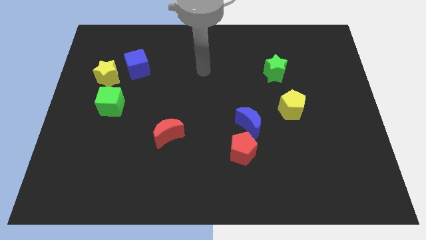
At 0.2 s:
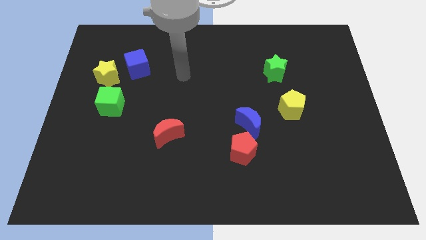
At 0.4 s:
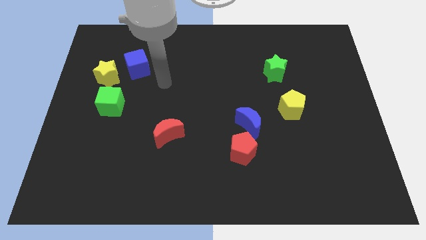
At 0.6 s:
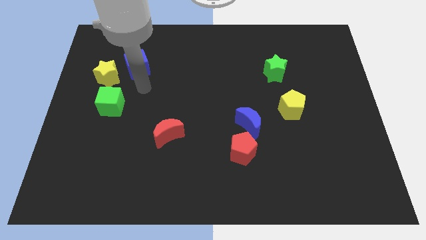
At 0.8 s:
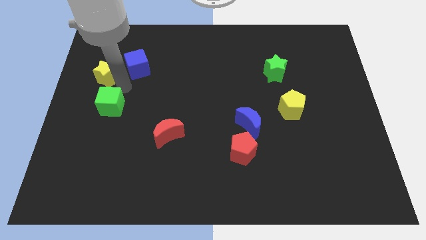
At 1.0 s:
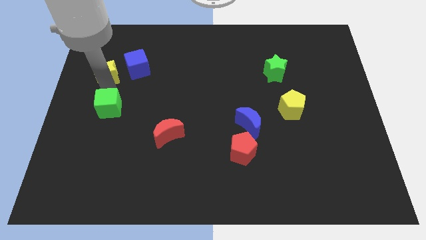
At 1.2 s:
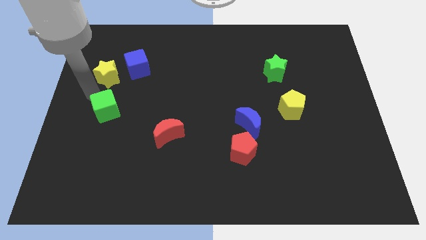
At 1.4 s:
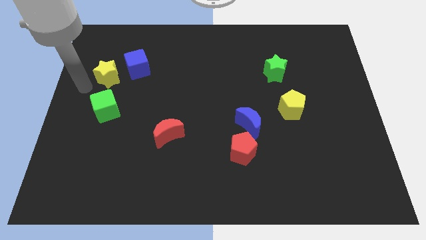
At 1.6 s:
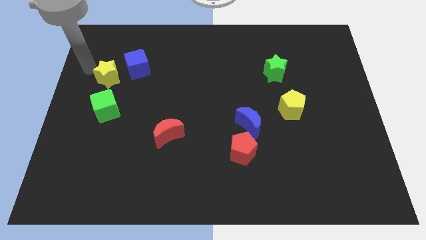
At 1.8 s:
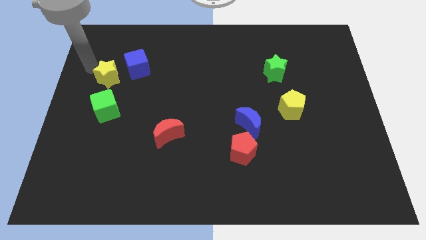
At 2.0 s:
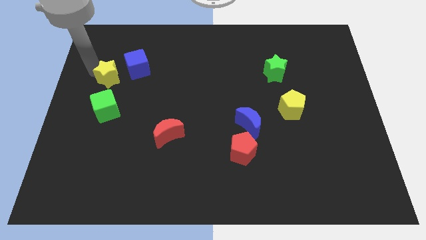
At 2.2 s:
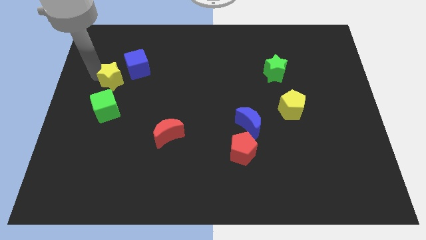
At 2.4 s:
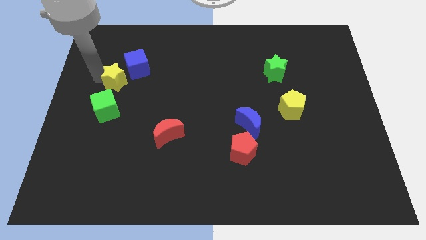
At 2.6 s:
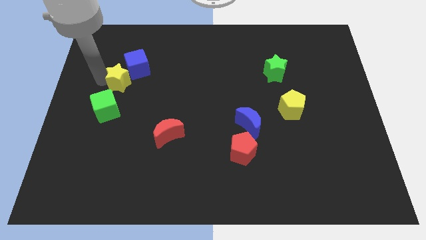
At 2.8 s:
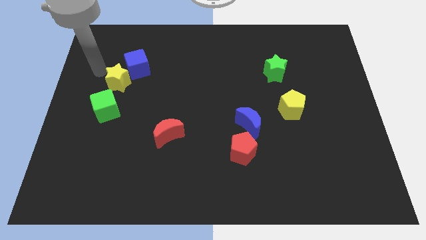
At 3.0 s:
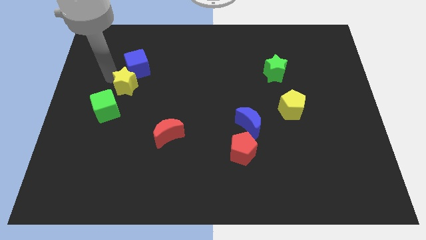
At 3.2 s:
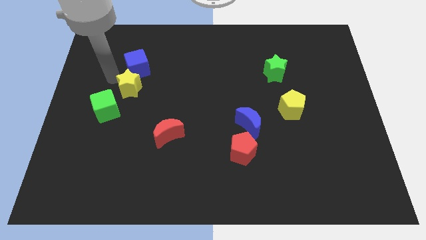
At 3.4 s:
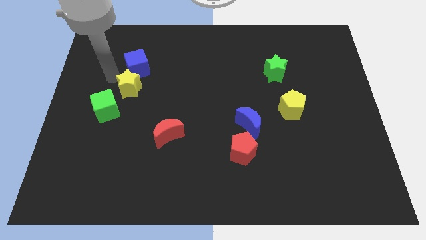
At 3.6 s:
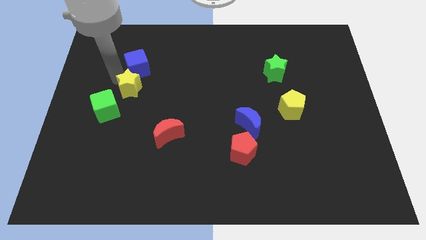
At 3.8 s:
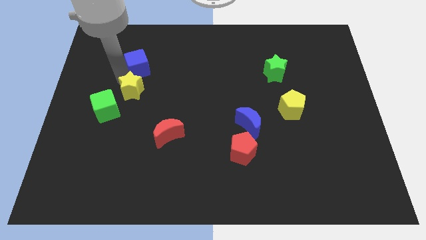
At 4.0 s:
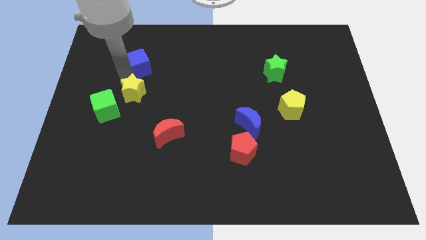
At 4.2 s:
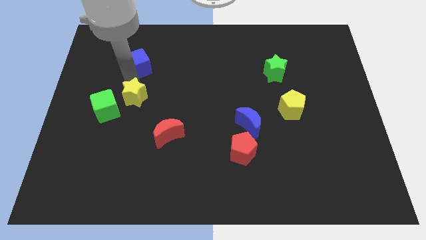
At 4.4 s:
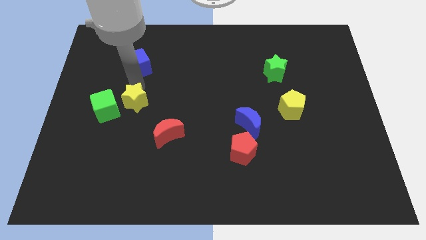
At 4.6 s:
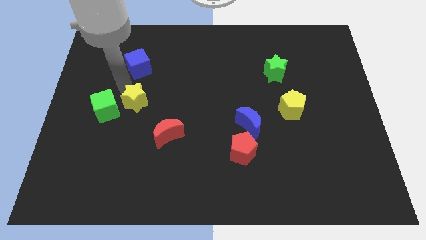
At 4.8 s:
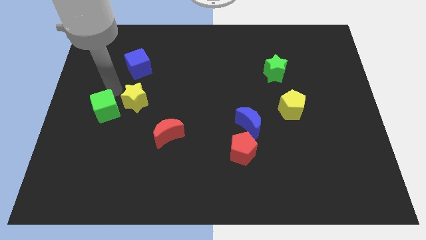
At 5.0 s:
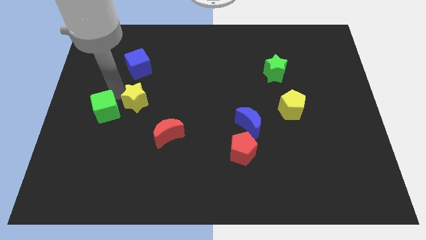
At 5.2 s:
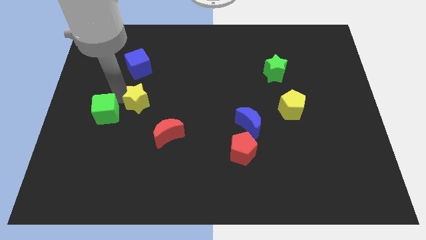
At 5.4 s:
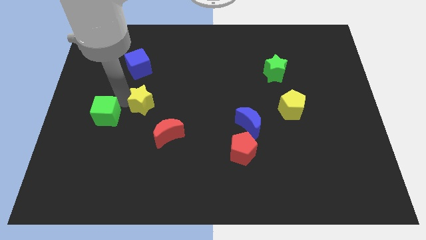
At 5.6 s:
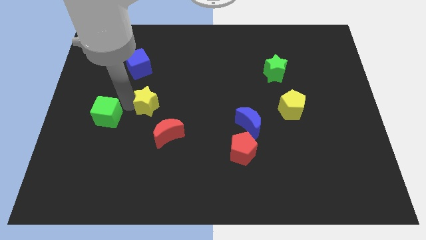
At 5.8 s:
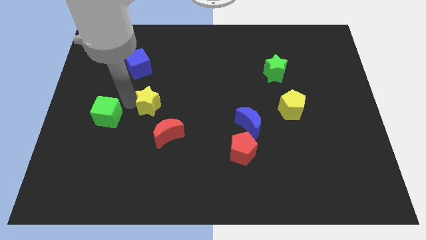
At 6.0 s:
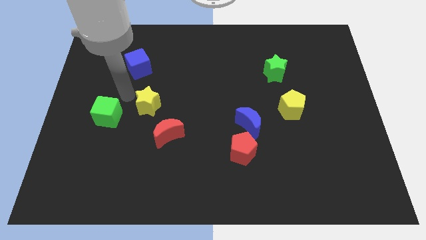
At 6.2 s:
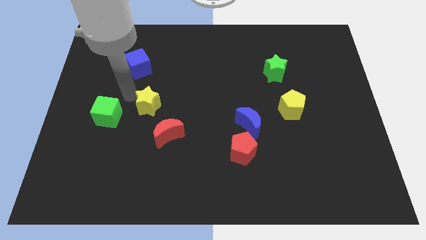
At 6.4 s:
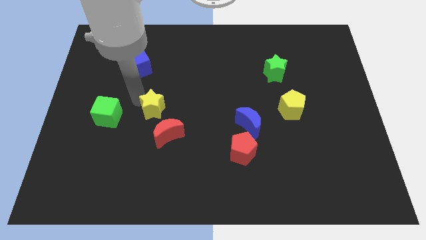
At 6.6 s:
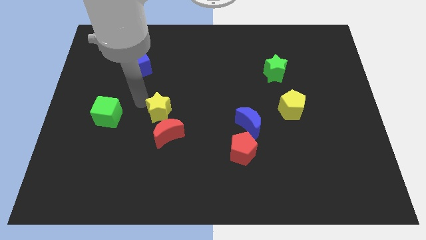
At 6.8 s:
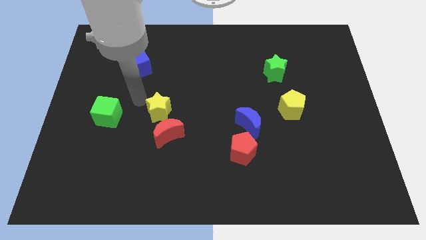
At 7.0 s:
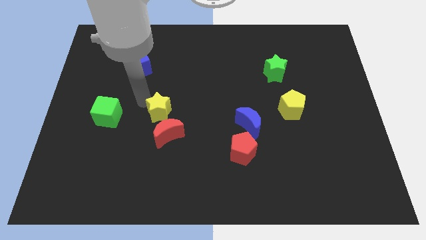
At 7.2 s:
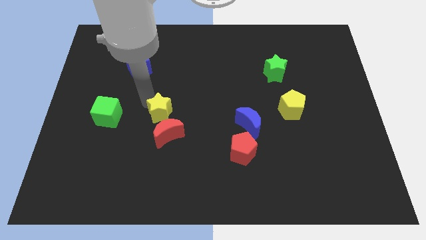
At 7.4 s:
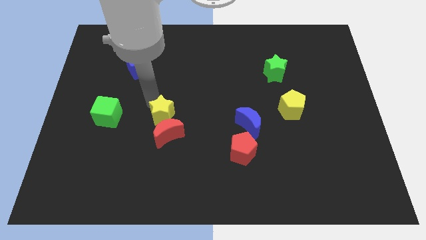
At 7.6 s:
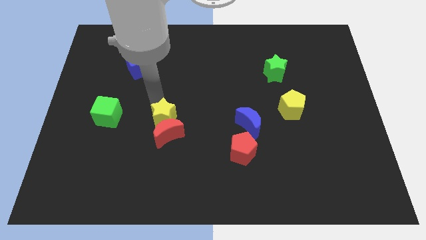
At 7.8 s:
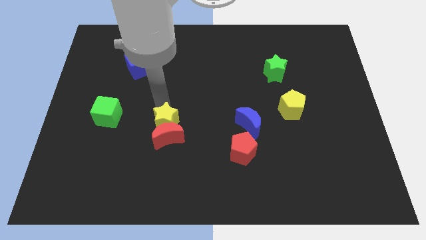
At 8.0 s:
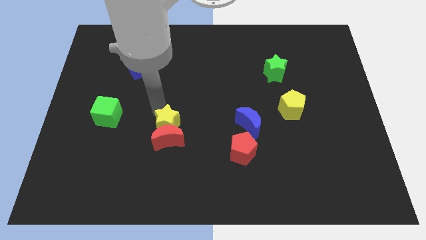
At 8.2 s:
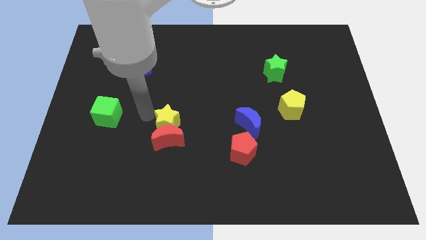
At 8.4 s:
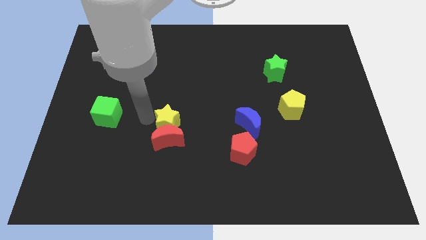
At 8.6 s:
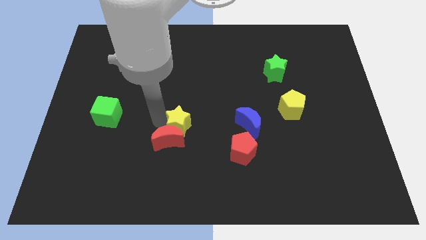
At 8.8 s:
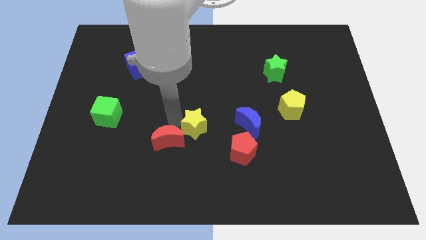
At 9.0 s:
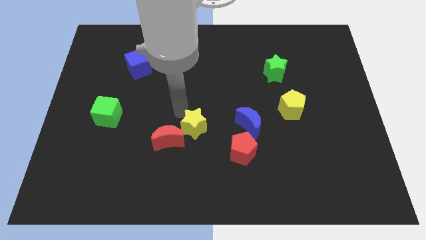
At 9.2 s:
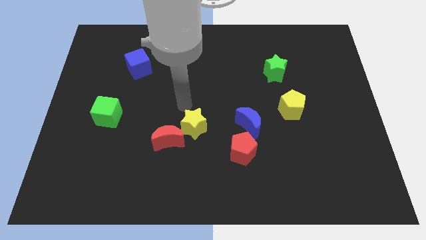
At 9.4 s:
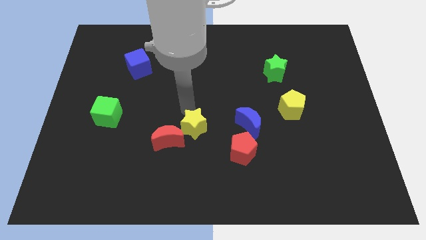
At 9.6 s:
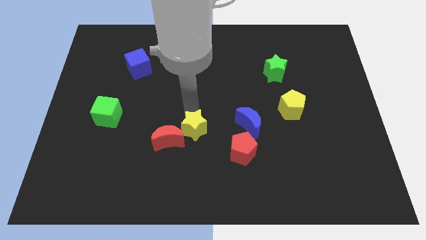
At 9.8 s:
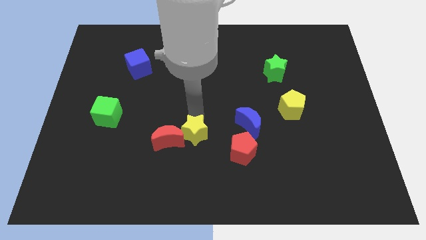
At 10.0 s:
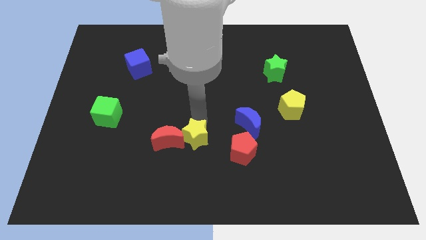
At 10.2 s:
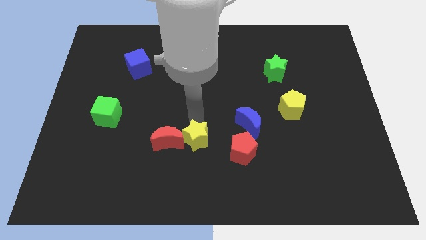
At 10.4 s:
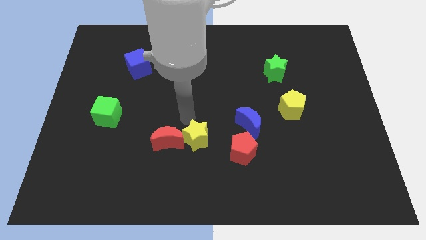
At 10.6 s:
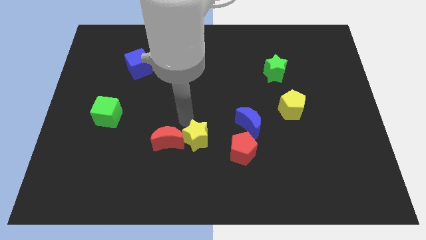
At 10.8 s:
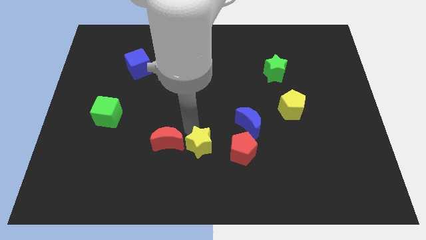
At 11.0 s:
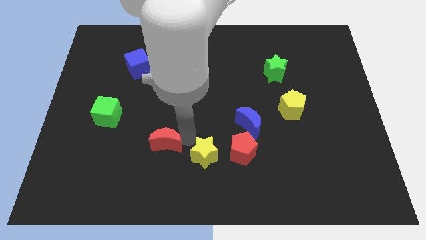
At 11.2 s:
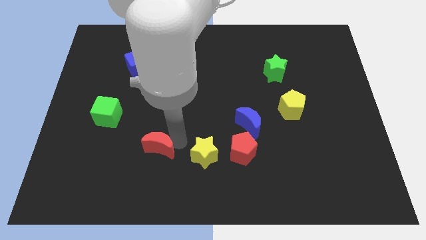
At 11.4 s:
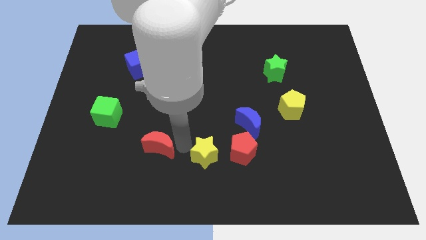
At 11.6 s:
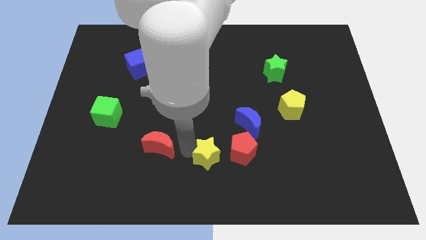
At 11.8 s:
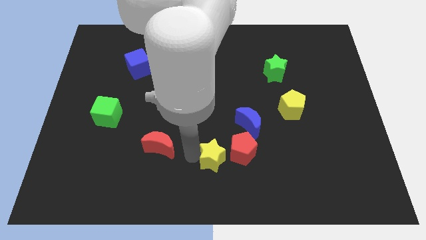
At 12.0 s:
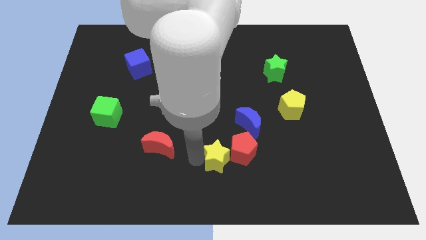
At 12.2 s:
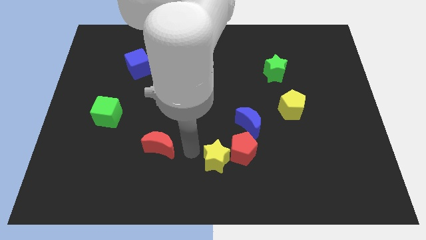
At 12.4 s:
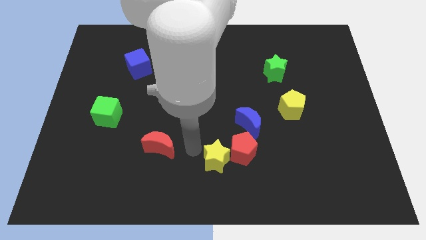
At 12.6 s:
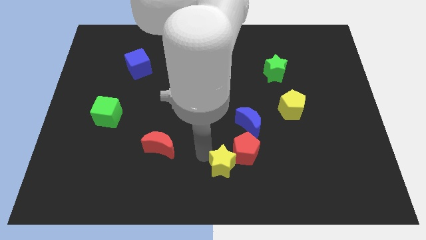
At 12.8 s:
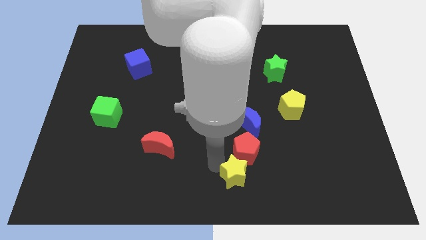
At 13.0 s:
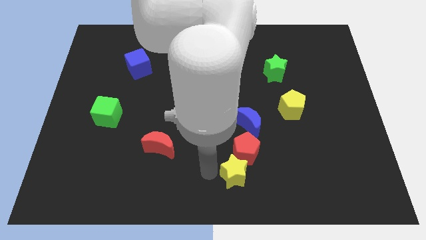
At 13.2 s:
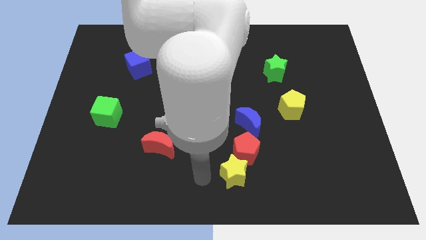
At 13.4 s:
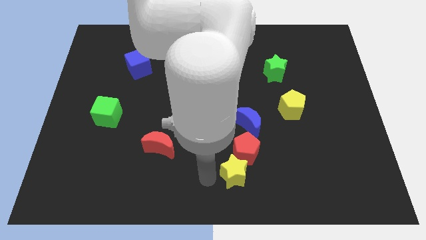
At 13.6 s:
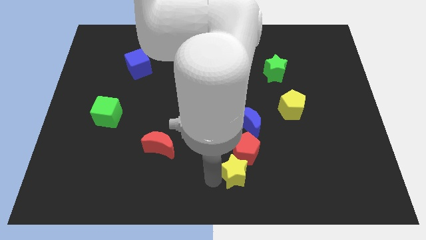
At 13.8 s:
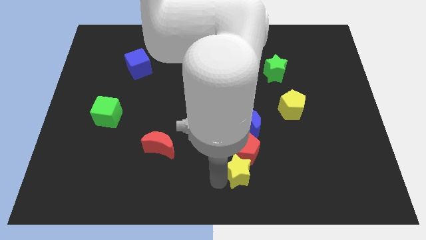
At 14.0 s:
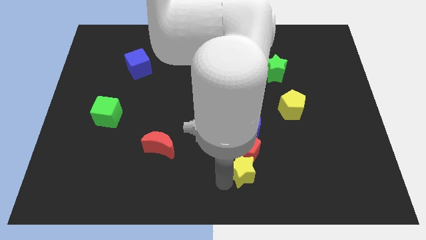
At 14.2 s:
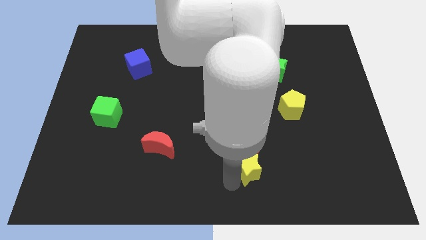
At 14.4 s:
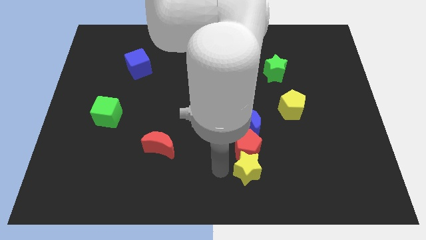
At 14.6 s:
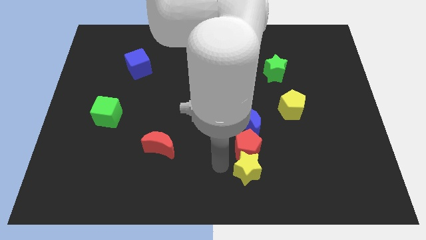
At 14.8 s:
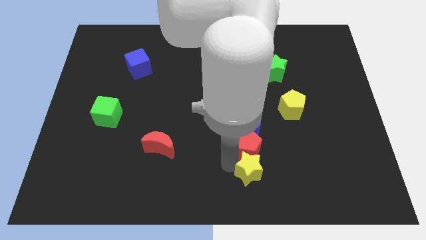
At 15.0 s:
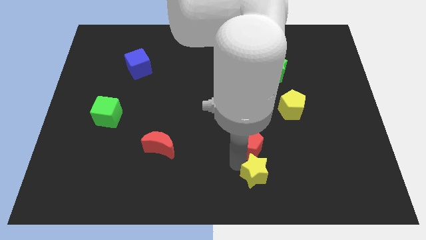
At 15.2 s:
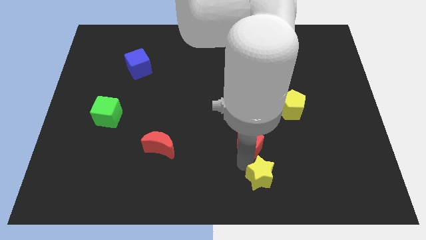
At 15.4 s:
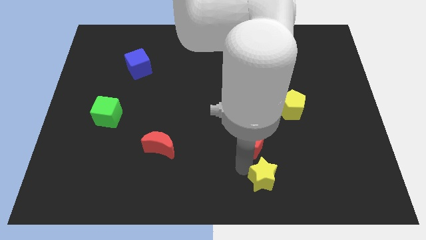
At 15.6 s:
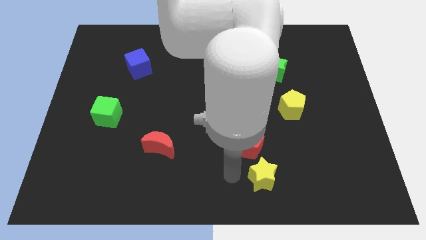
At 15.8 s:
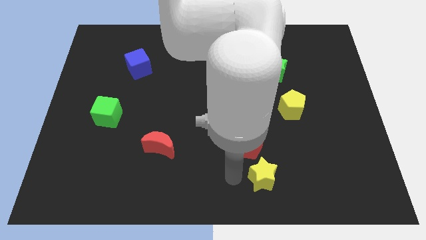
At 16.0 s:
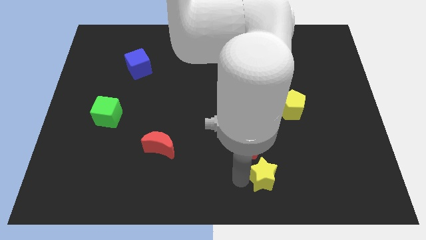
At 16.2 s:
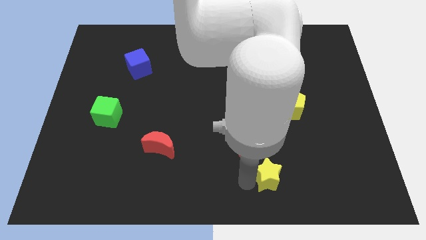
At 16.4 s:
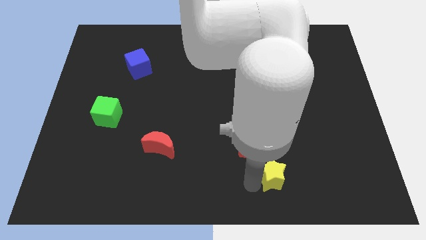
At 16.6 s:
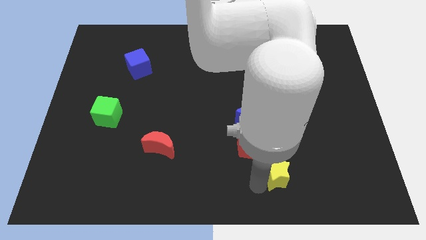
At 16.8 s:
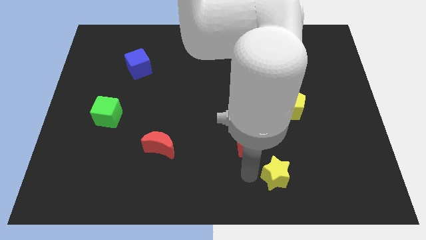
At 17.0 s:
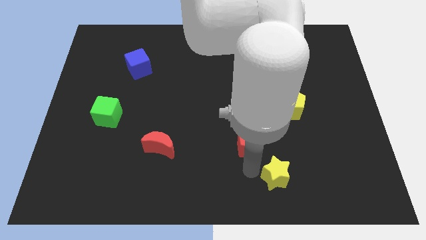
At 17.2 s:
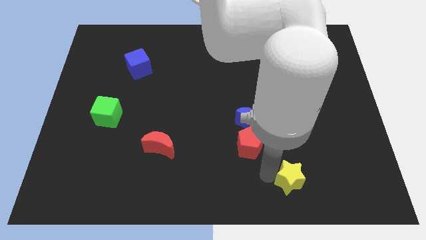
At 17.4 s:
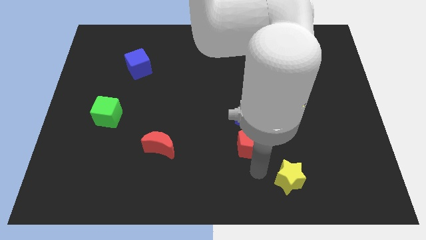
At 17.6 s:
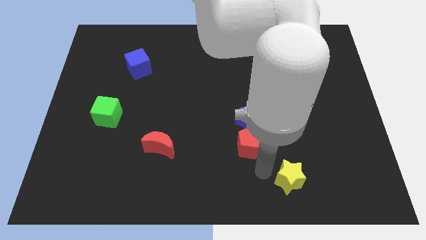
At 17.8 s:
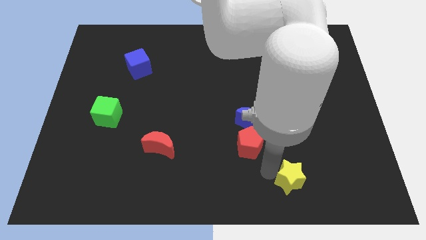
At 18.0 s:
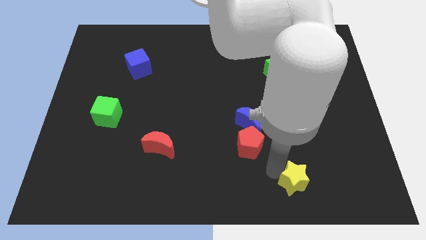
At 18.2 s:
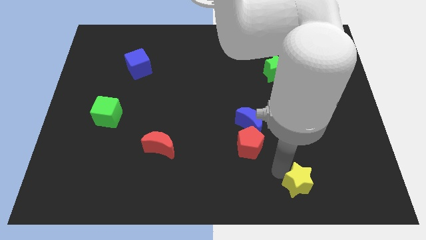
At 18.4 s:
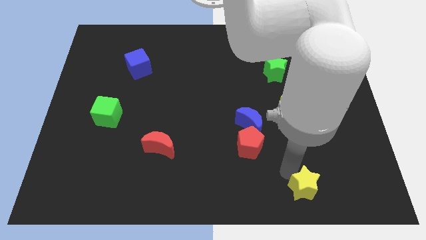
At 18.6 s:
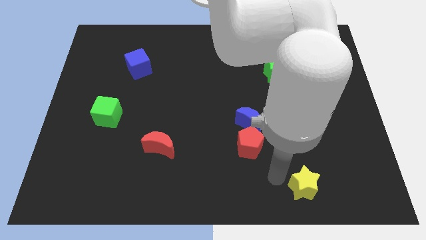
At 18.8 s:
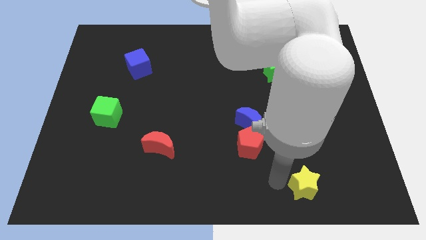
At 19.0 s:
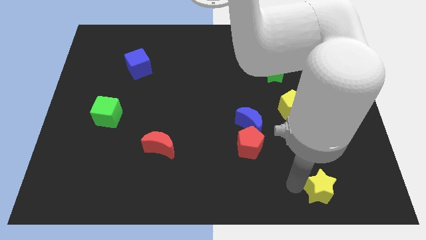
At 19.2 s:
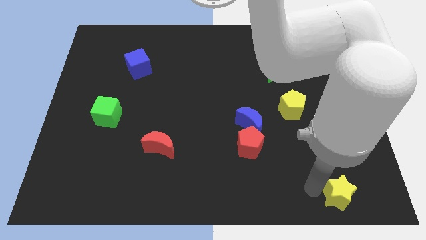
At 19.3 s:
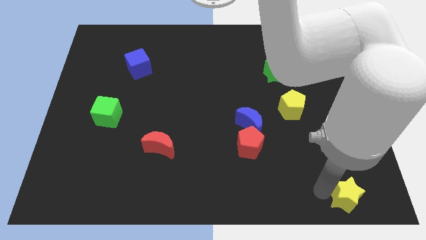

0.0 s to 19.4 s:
slide the yellow star to the lower right corner
